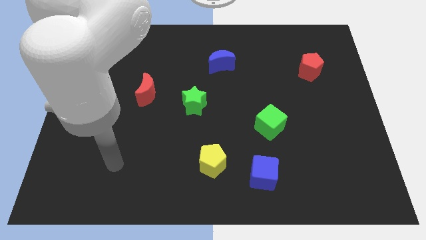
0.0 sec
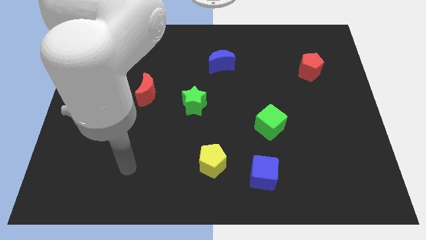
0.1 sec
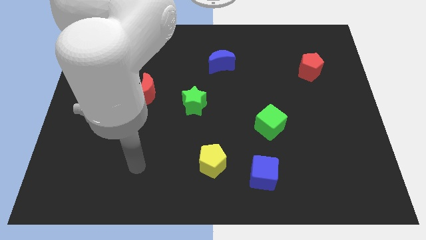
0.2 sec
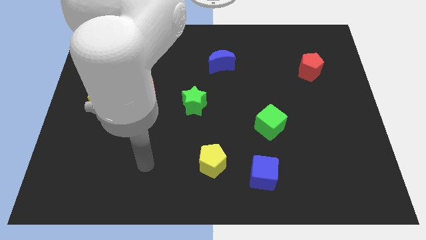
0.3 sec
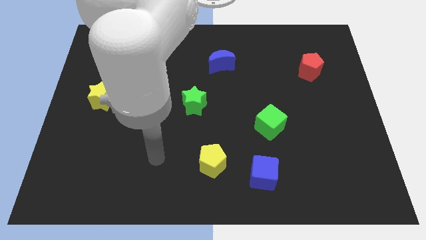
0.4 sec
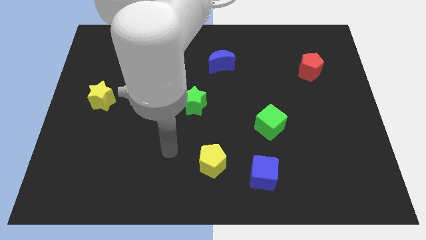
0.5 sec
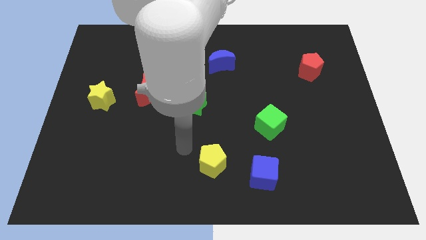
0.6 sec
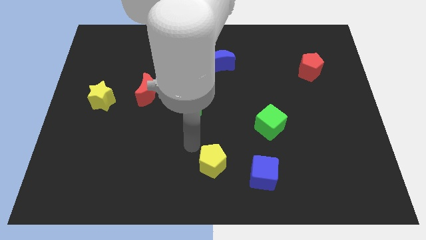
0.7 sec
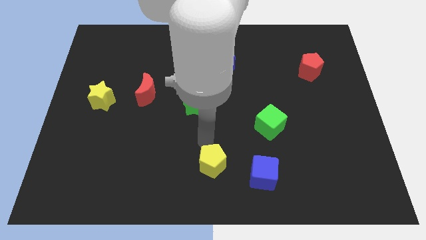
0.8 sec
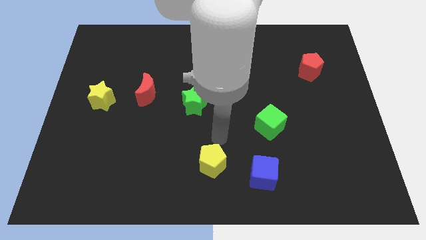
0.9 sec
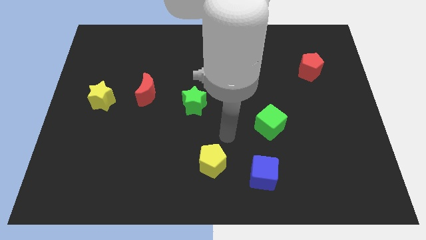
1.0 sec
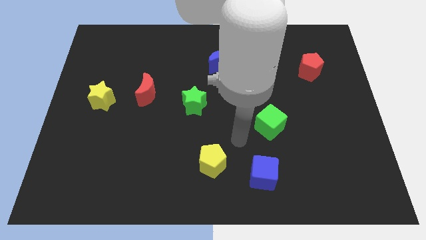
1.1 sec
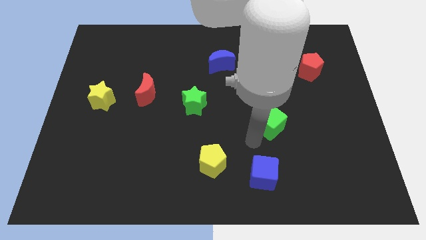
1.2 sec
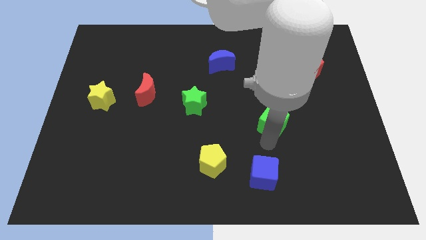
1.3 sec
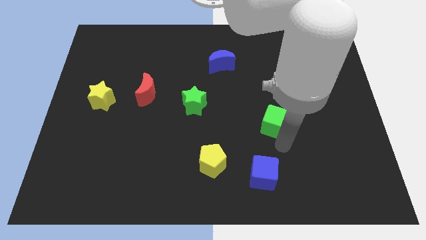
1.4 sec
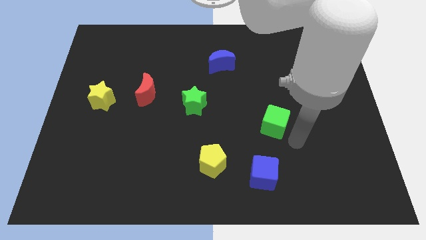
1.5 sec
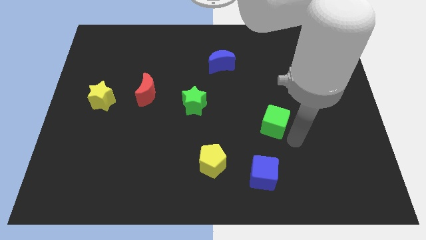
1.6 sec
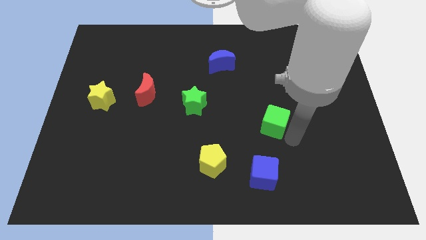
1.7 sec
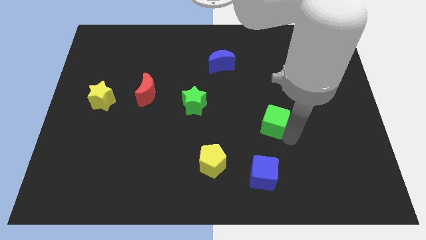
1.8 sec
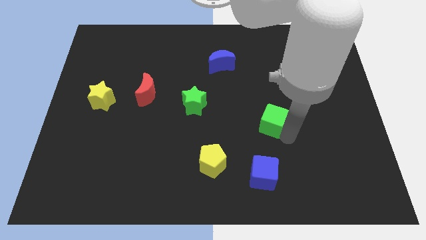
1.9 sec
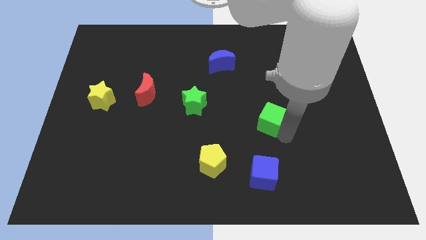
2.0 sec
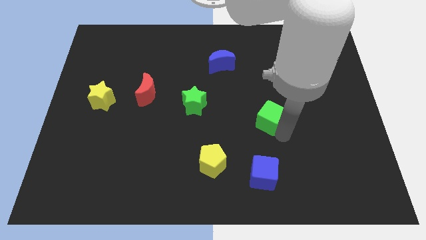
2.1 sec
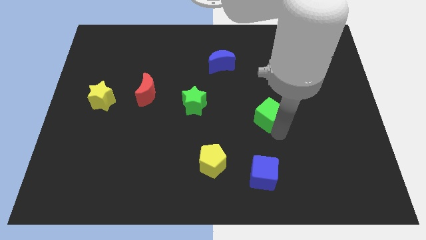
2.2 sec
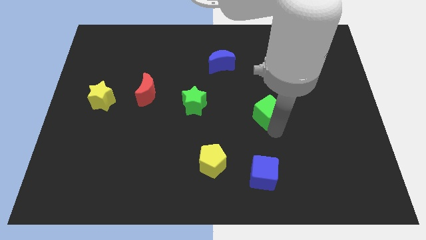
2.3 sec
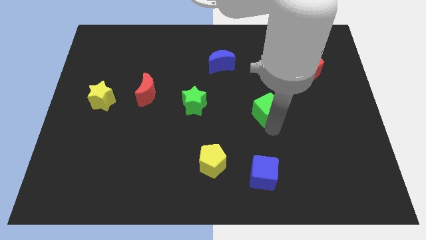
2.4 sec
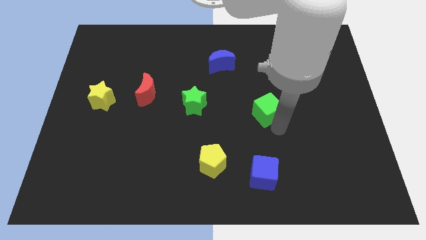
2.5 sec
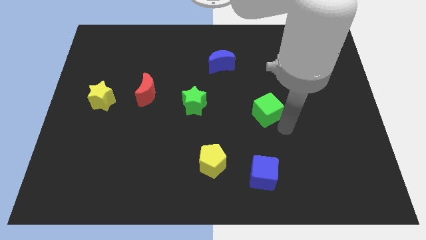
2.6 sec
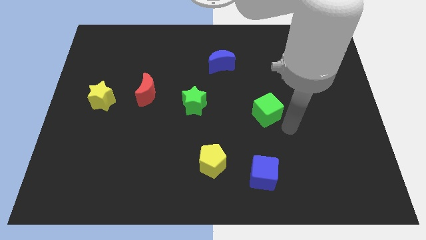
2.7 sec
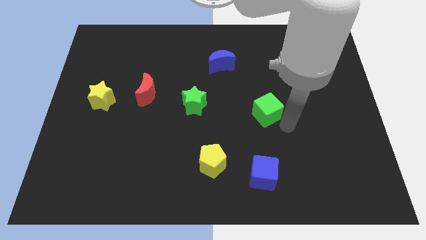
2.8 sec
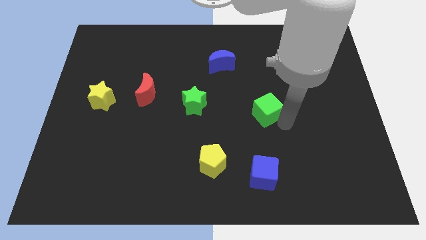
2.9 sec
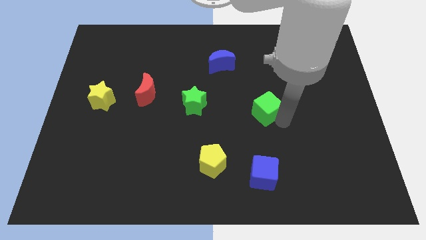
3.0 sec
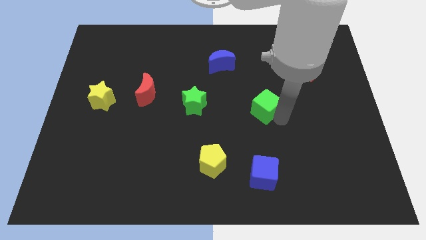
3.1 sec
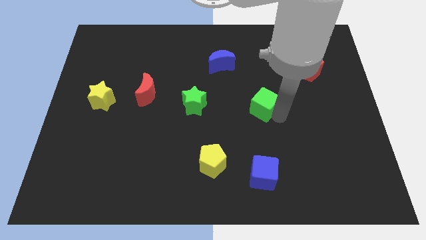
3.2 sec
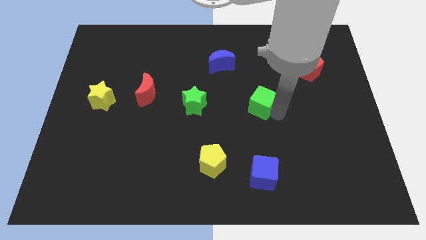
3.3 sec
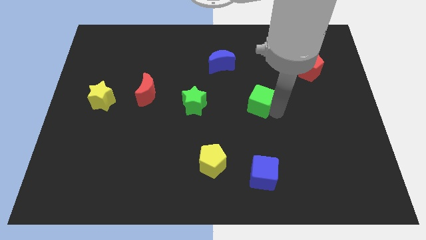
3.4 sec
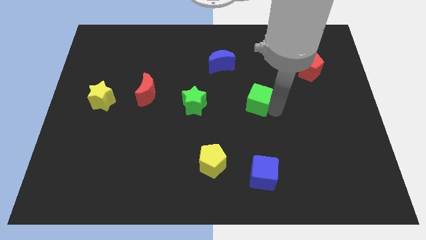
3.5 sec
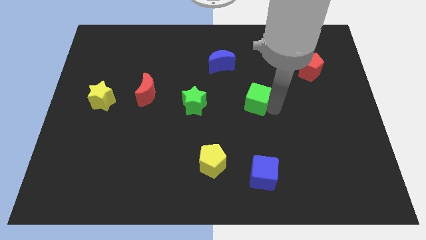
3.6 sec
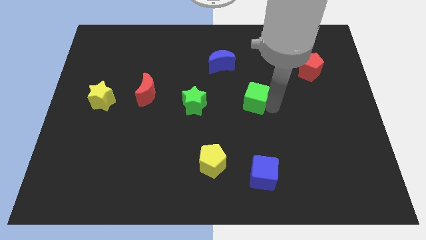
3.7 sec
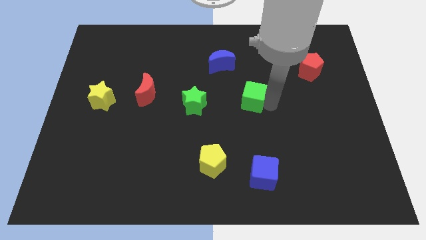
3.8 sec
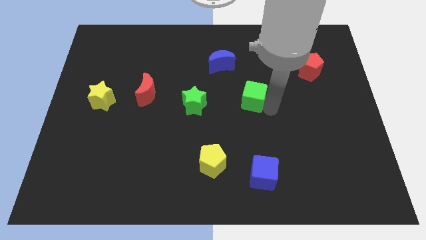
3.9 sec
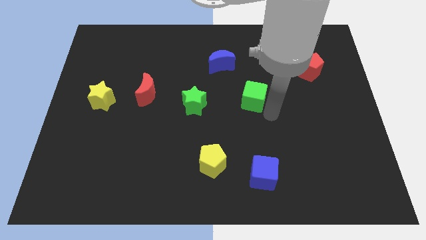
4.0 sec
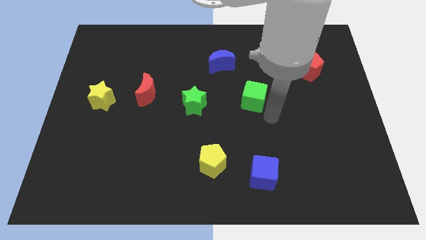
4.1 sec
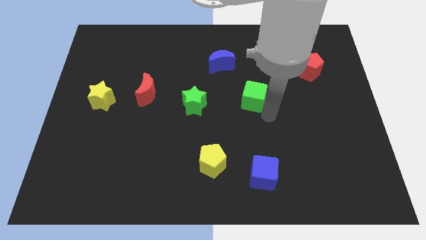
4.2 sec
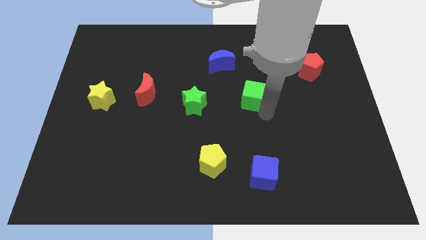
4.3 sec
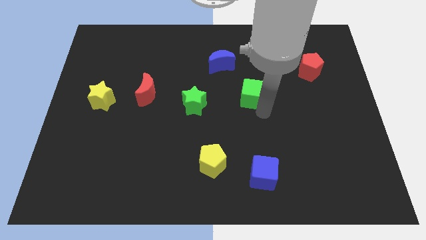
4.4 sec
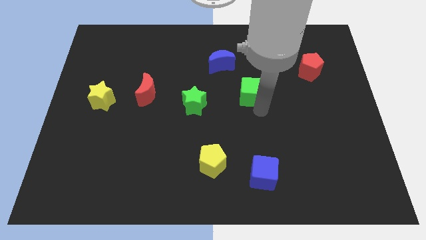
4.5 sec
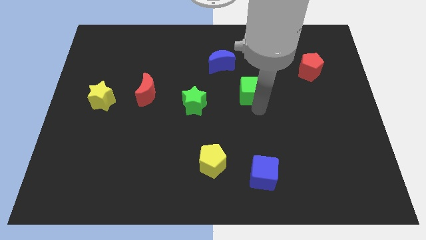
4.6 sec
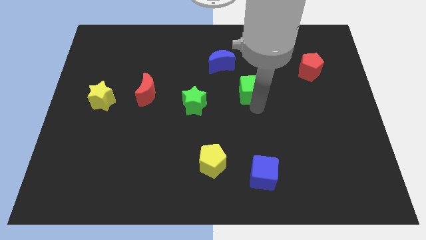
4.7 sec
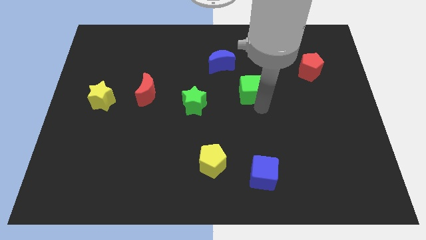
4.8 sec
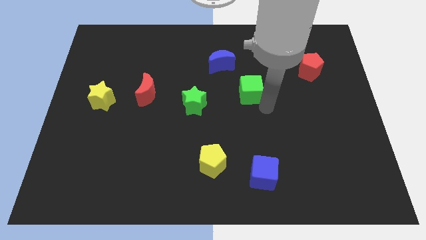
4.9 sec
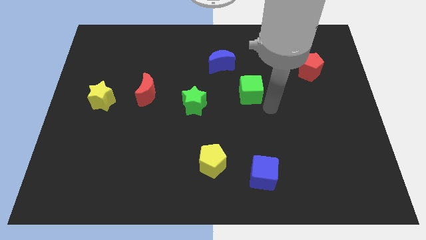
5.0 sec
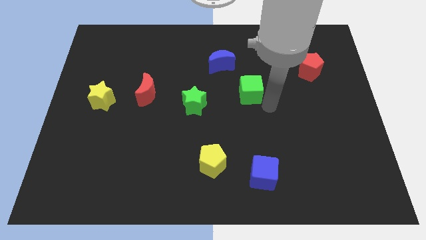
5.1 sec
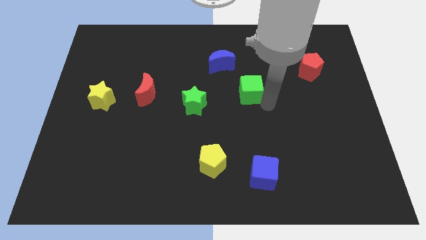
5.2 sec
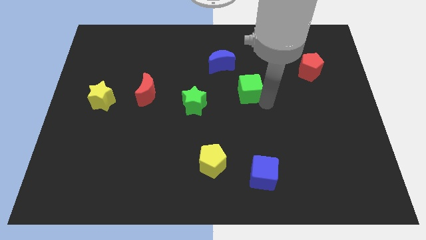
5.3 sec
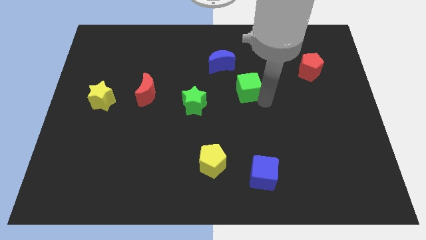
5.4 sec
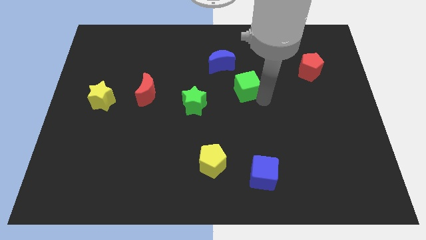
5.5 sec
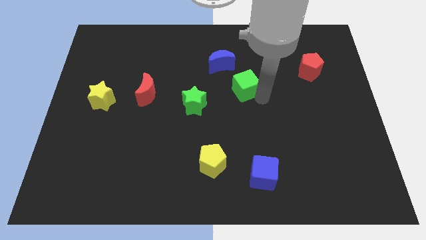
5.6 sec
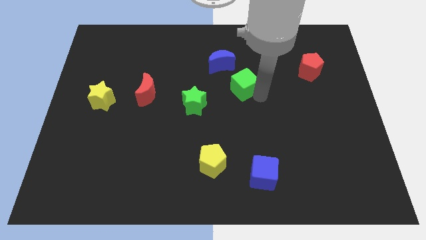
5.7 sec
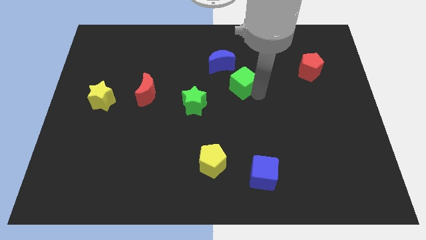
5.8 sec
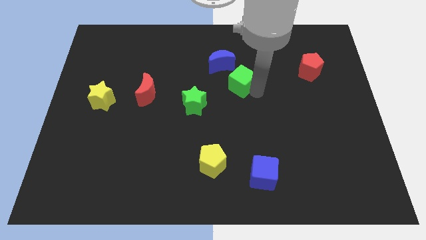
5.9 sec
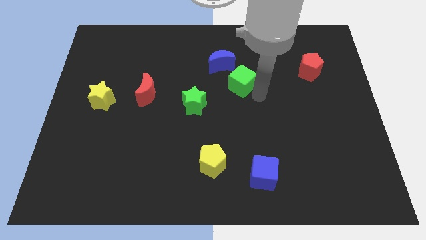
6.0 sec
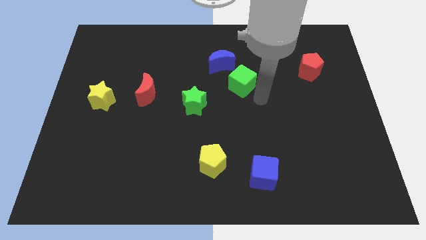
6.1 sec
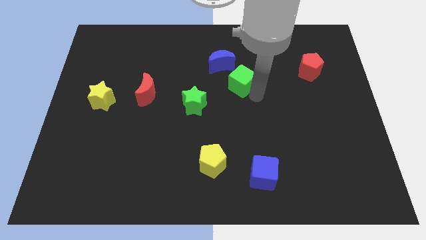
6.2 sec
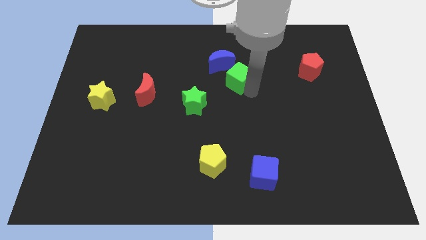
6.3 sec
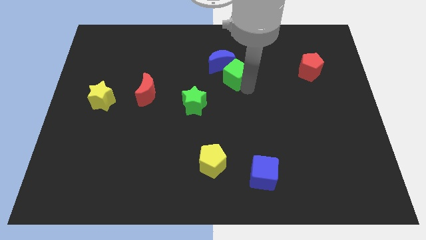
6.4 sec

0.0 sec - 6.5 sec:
move the green cube close to the blue moon

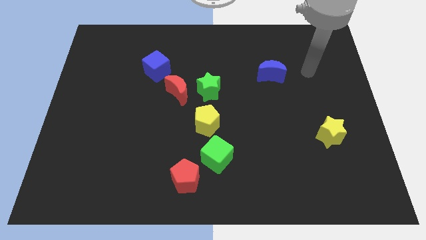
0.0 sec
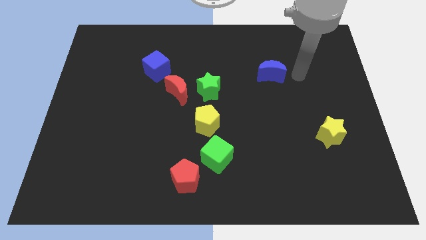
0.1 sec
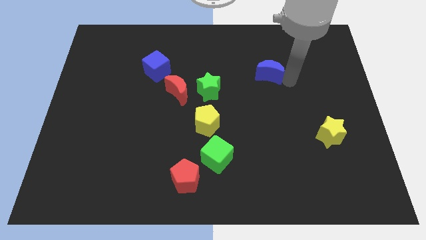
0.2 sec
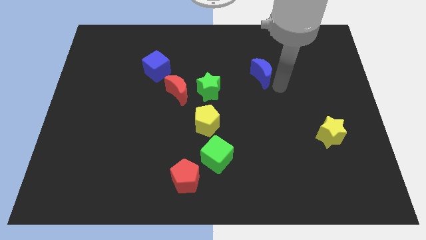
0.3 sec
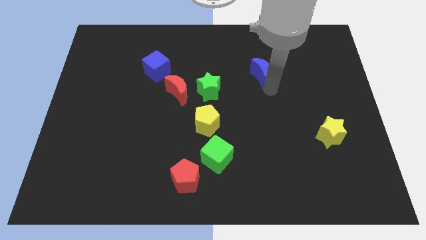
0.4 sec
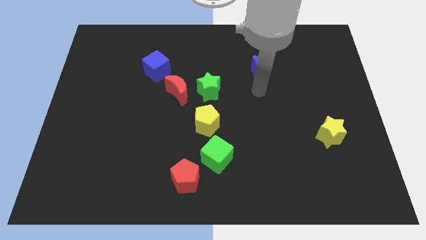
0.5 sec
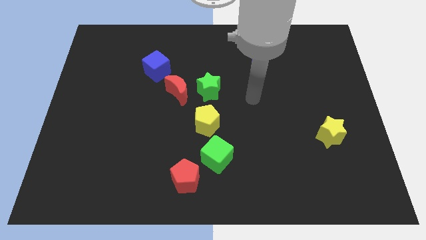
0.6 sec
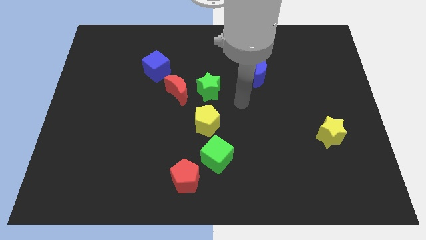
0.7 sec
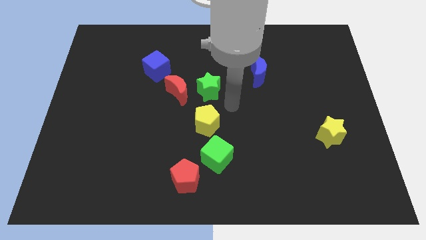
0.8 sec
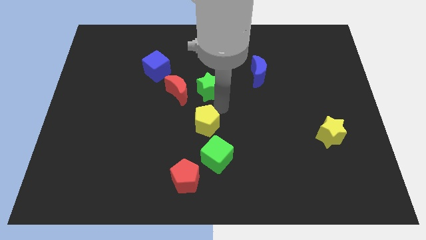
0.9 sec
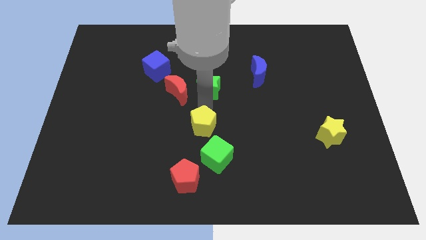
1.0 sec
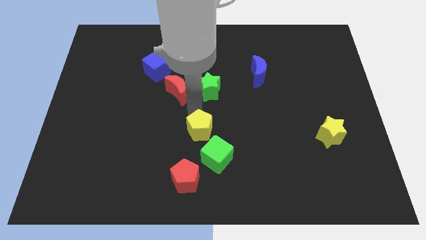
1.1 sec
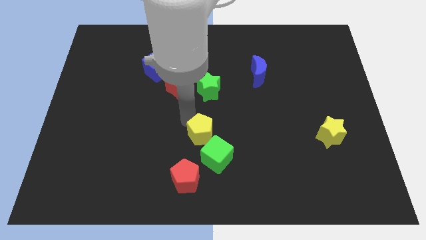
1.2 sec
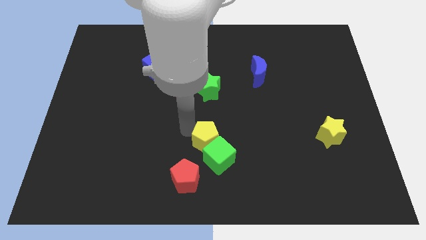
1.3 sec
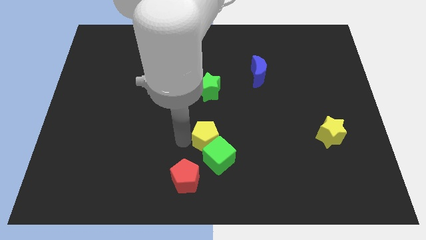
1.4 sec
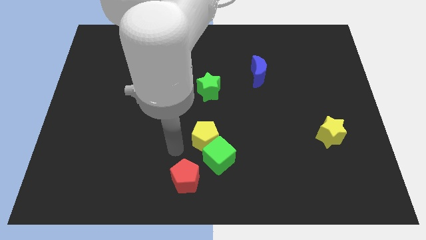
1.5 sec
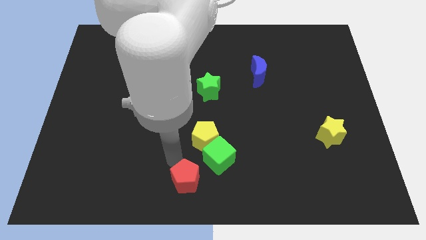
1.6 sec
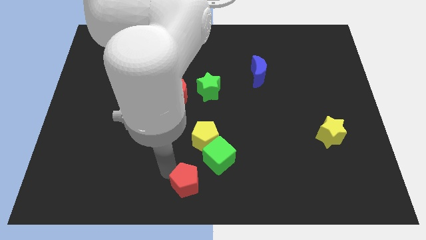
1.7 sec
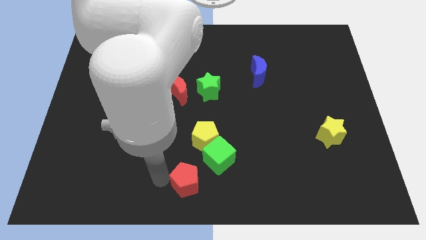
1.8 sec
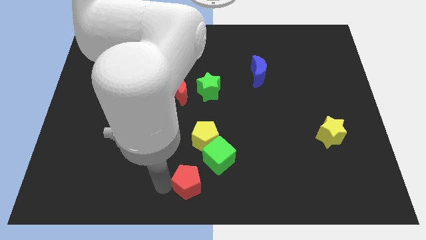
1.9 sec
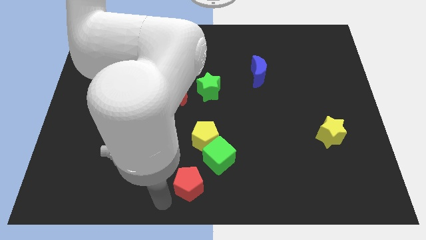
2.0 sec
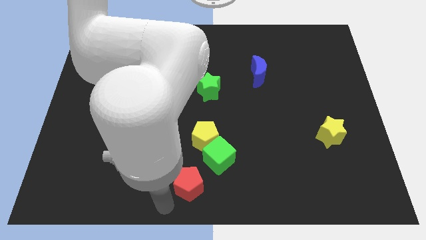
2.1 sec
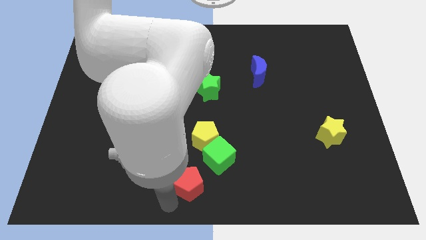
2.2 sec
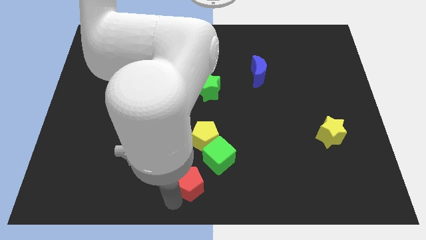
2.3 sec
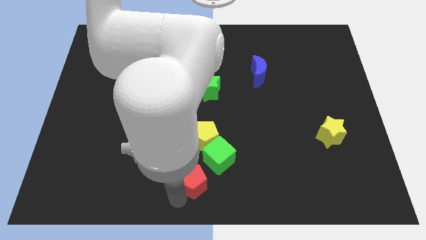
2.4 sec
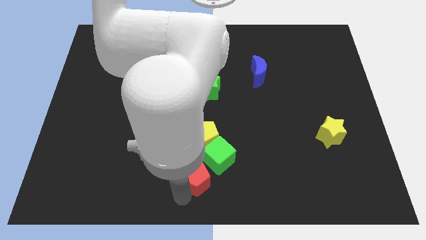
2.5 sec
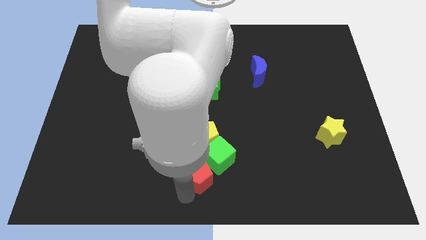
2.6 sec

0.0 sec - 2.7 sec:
push the red pentagon next to the green cube
